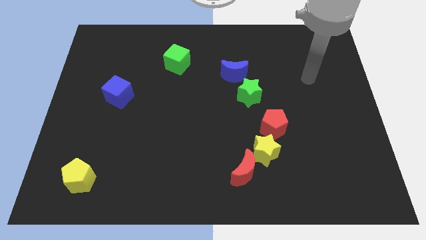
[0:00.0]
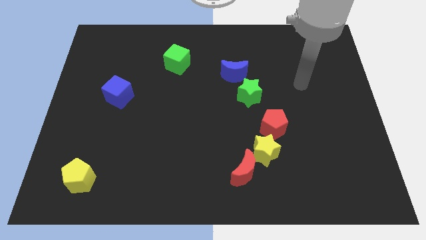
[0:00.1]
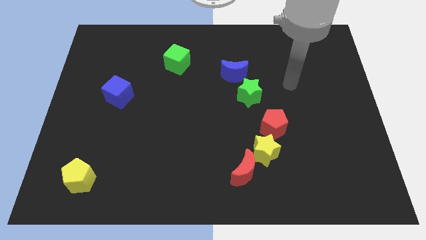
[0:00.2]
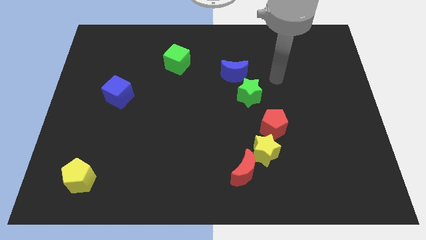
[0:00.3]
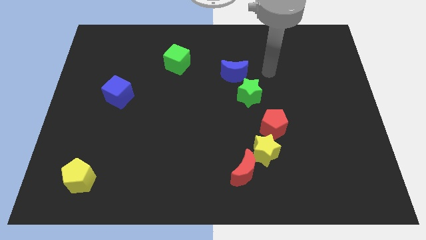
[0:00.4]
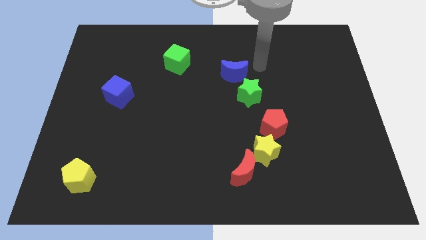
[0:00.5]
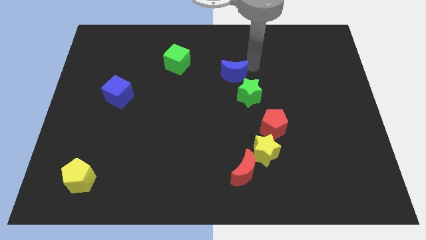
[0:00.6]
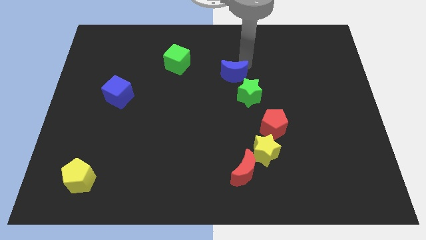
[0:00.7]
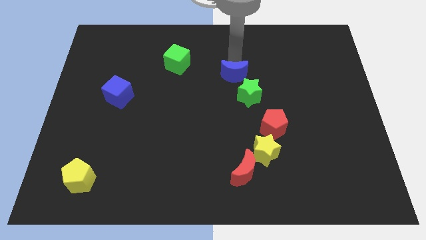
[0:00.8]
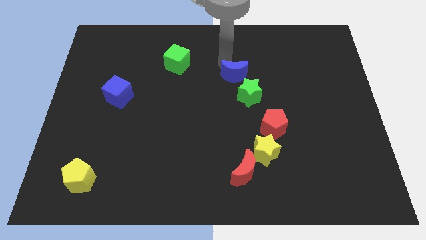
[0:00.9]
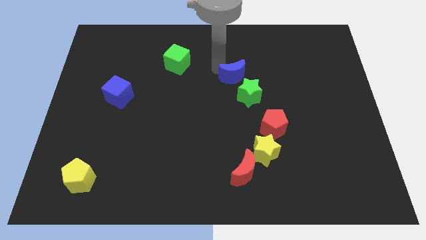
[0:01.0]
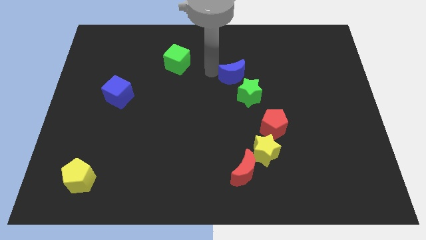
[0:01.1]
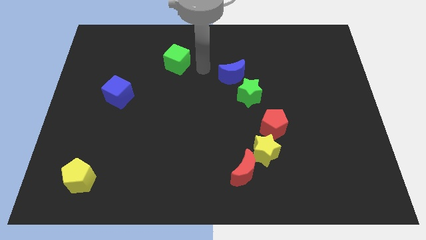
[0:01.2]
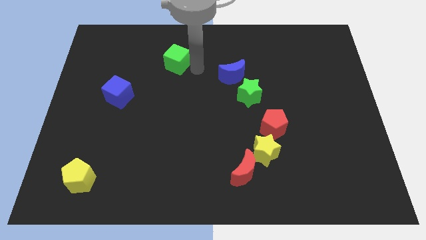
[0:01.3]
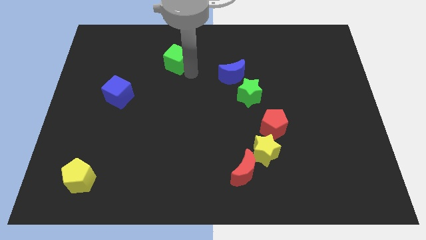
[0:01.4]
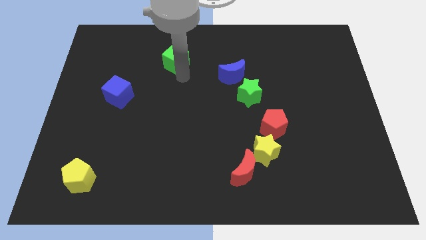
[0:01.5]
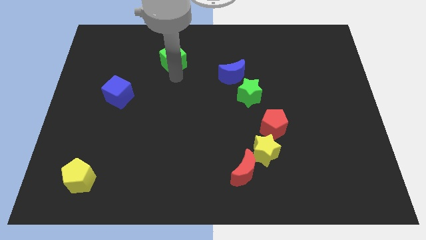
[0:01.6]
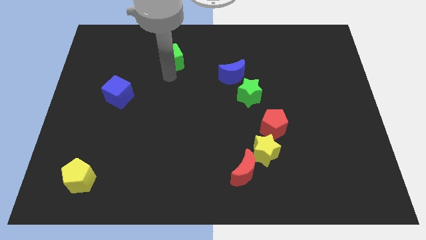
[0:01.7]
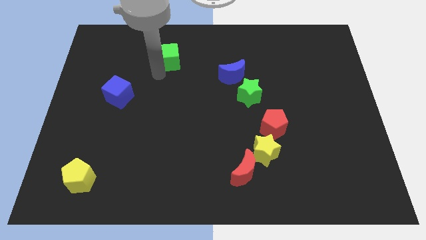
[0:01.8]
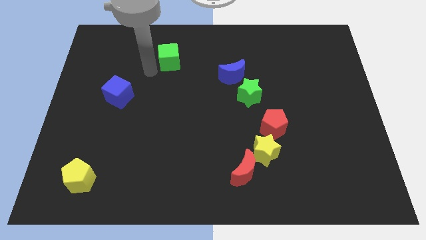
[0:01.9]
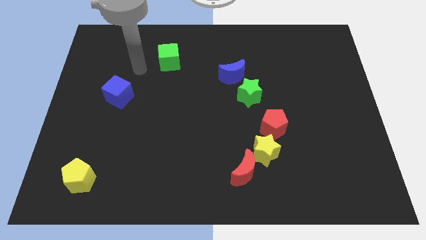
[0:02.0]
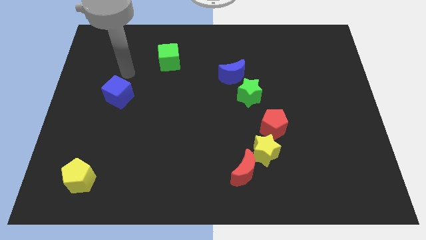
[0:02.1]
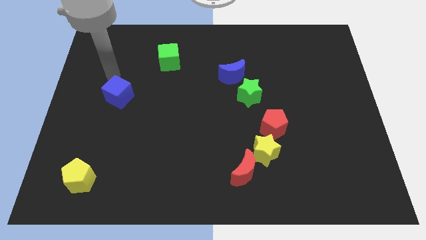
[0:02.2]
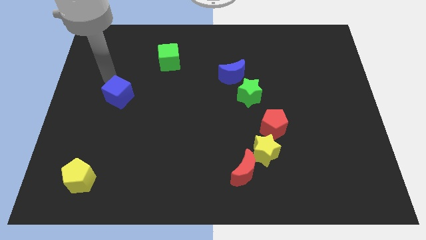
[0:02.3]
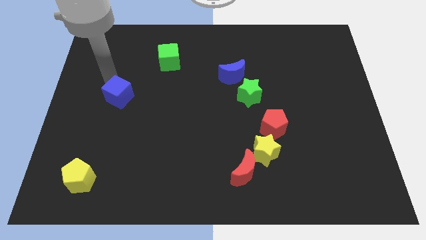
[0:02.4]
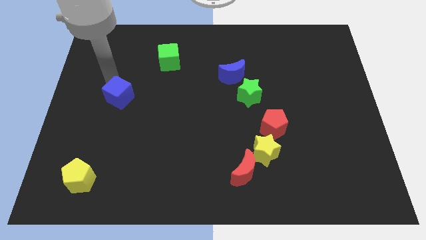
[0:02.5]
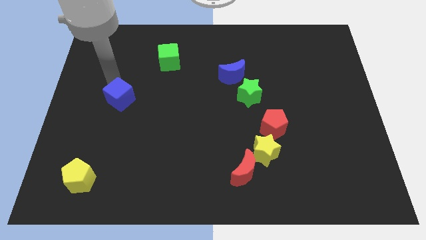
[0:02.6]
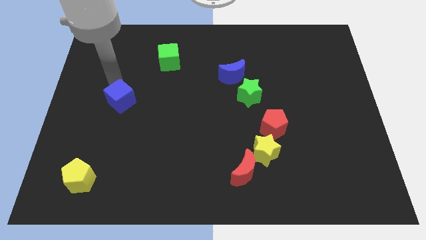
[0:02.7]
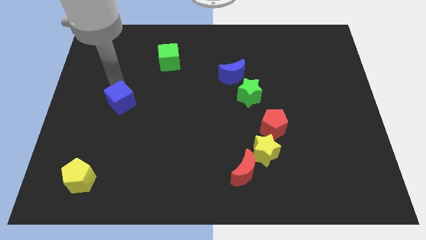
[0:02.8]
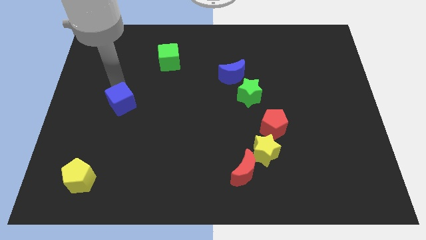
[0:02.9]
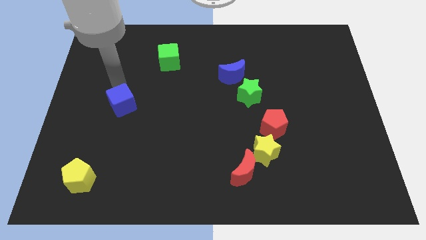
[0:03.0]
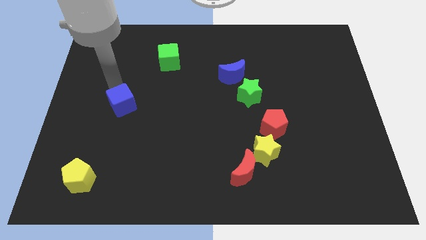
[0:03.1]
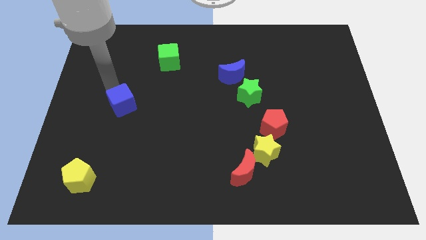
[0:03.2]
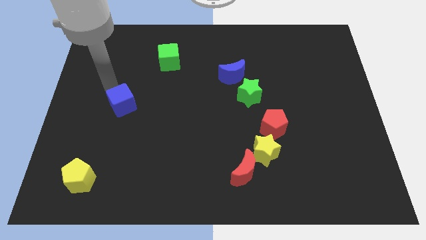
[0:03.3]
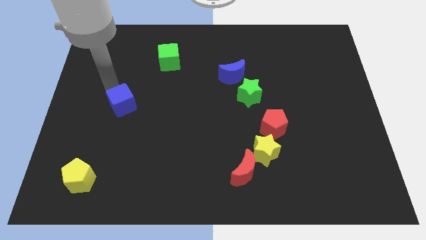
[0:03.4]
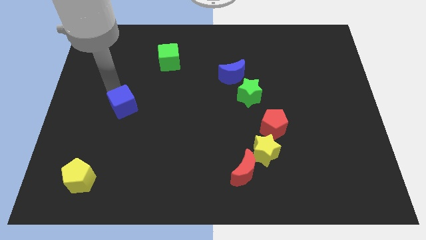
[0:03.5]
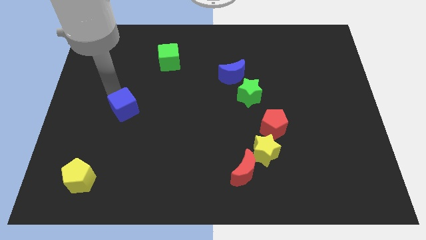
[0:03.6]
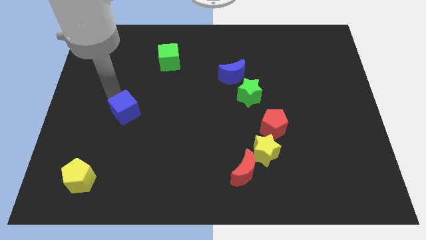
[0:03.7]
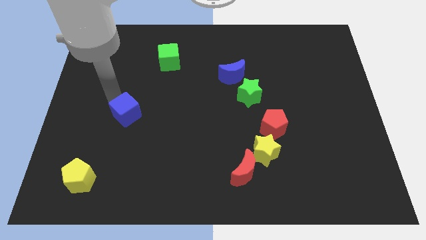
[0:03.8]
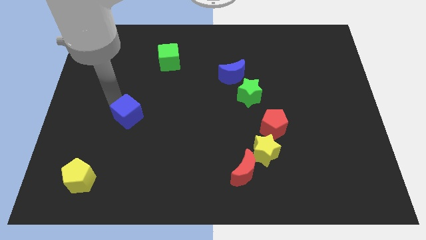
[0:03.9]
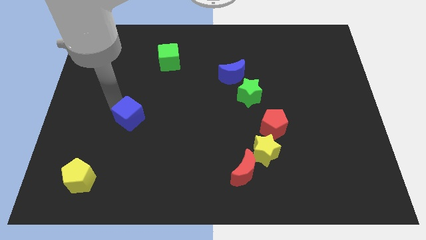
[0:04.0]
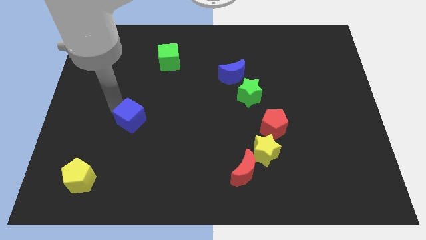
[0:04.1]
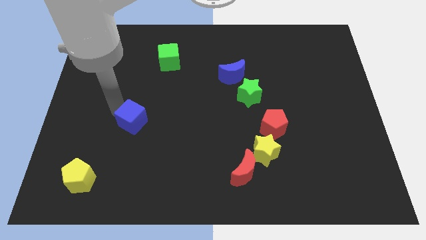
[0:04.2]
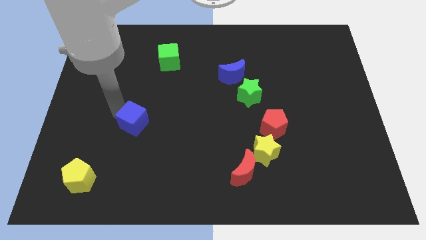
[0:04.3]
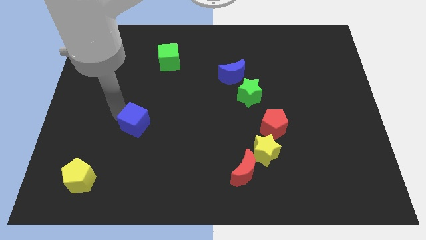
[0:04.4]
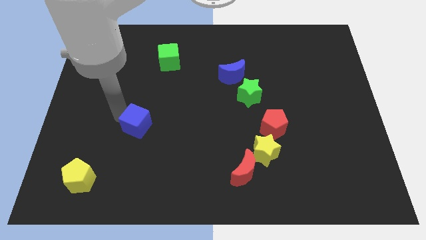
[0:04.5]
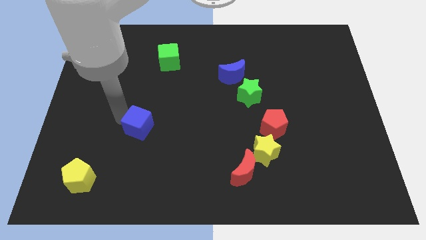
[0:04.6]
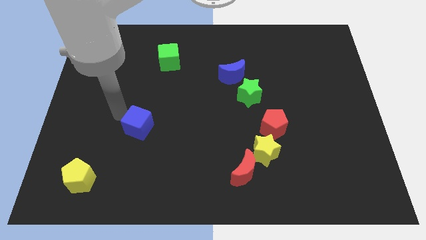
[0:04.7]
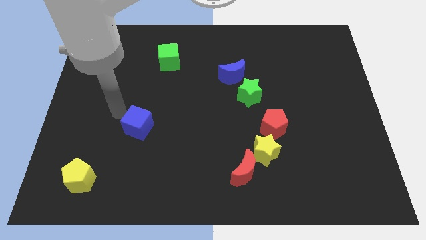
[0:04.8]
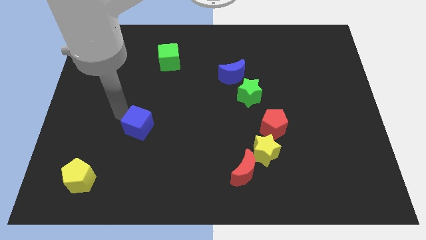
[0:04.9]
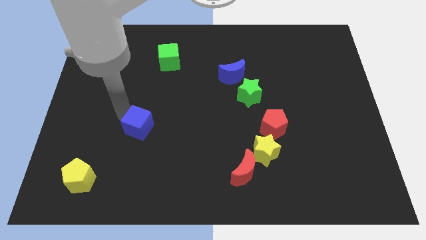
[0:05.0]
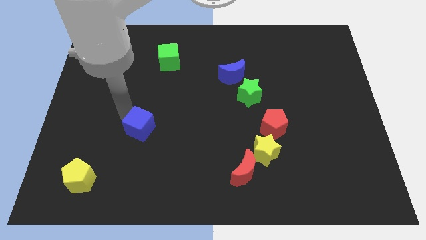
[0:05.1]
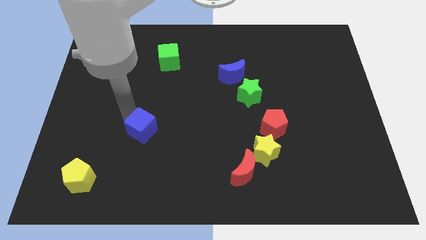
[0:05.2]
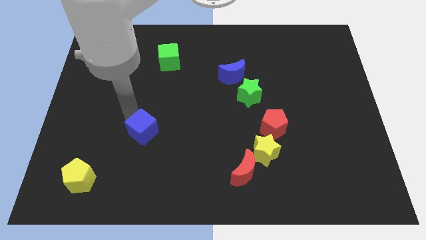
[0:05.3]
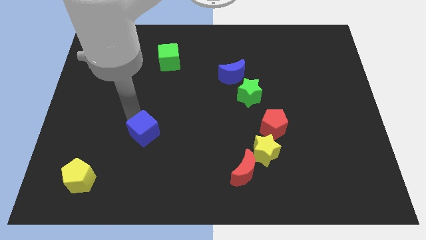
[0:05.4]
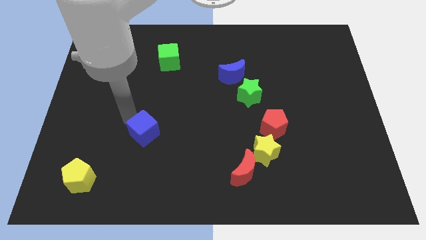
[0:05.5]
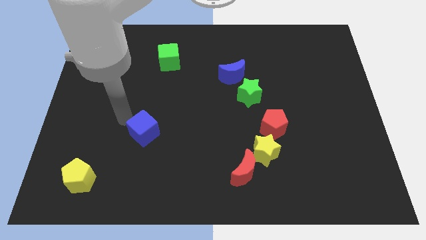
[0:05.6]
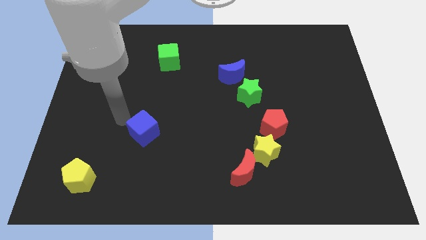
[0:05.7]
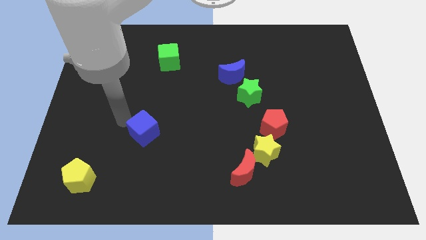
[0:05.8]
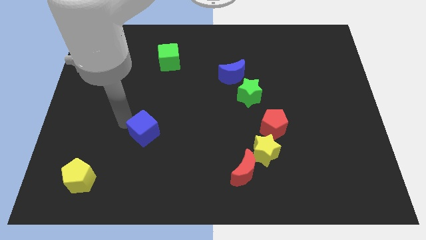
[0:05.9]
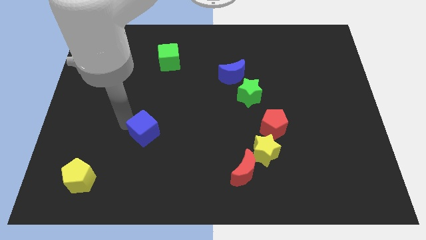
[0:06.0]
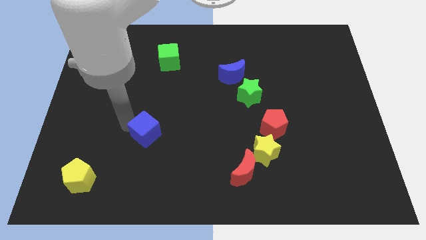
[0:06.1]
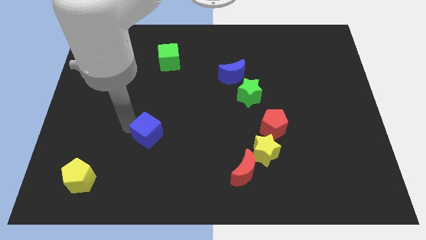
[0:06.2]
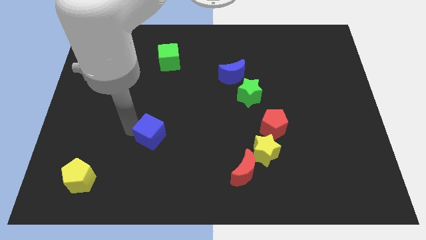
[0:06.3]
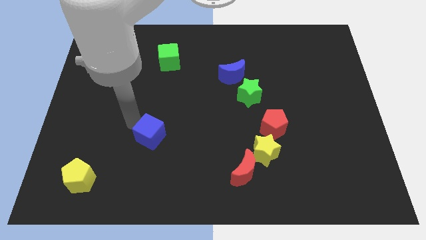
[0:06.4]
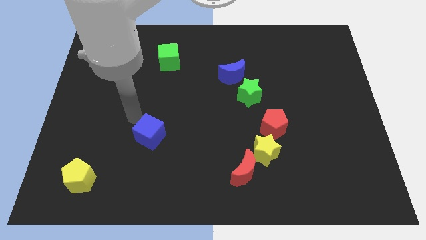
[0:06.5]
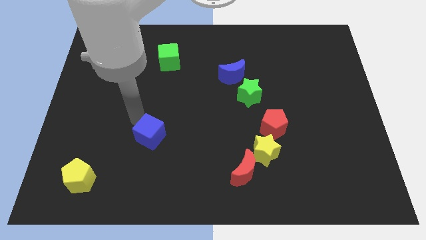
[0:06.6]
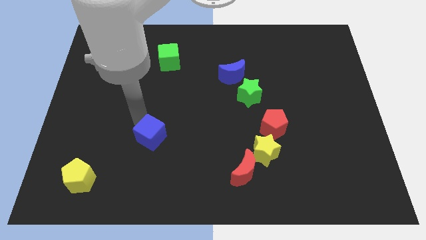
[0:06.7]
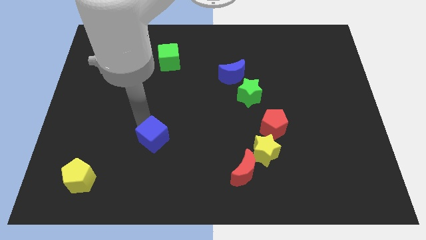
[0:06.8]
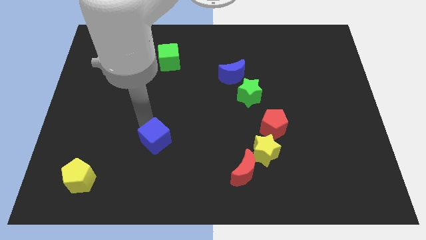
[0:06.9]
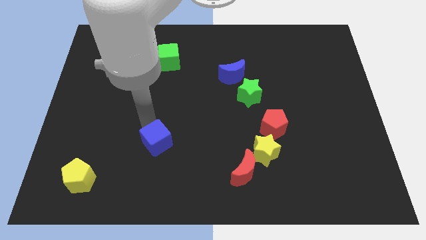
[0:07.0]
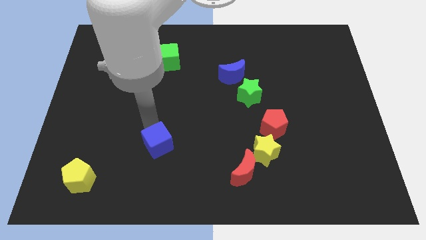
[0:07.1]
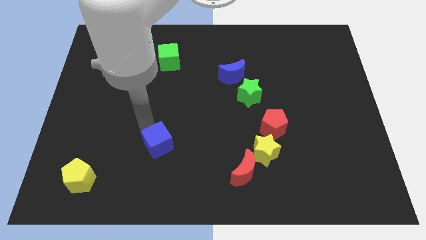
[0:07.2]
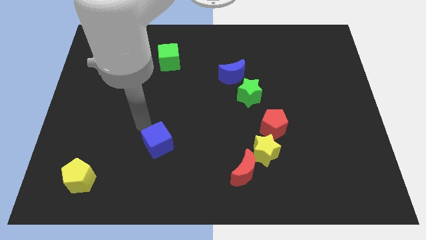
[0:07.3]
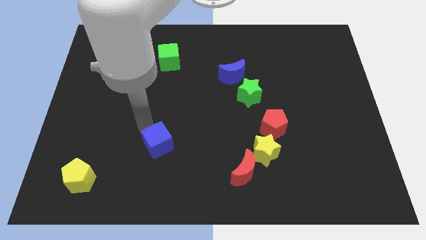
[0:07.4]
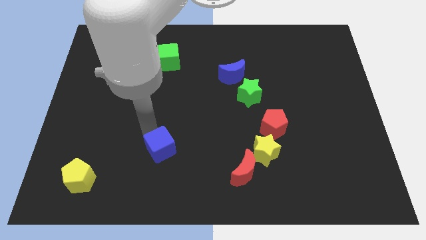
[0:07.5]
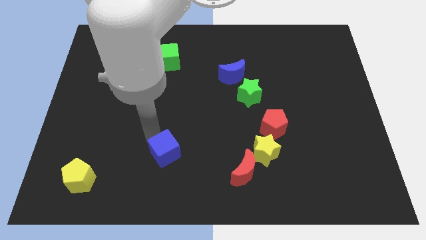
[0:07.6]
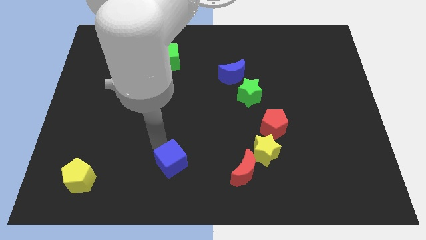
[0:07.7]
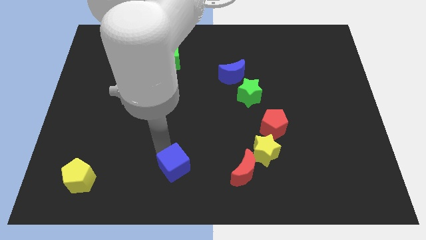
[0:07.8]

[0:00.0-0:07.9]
push the blue cube to the bottom side
